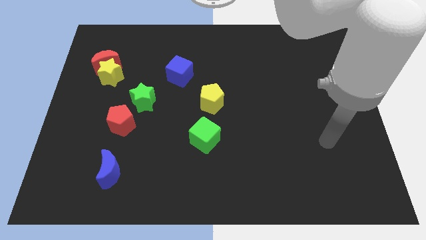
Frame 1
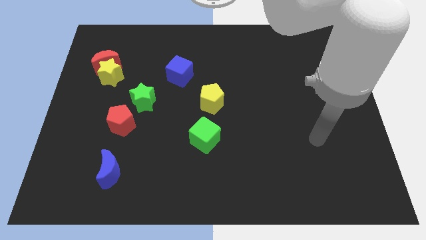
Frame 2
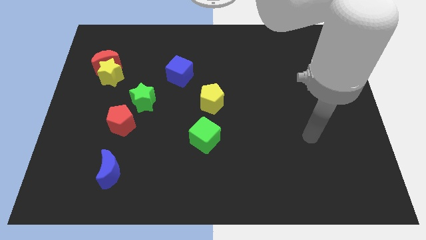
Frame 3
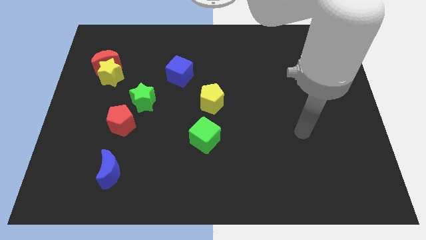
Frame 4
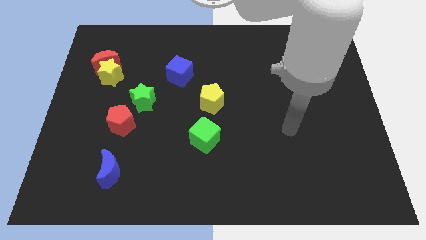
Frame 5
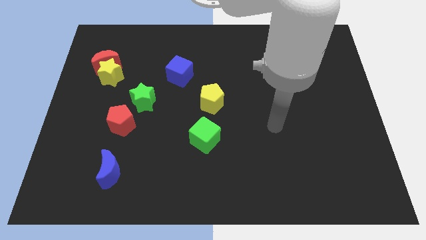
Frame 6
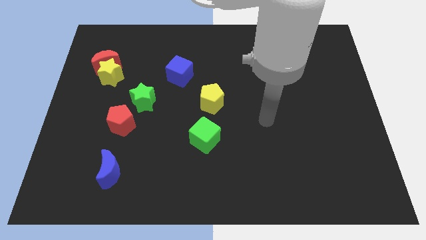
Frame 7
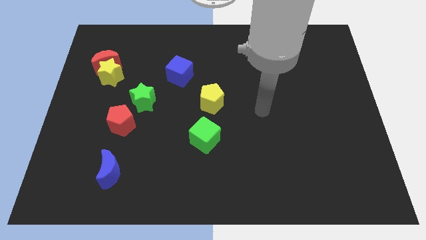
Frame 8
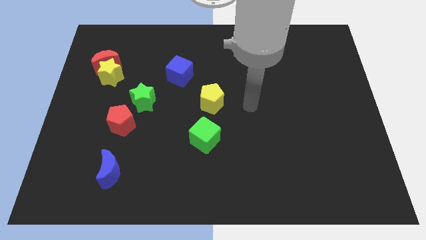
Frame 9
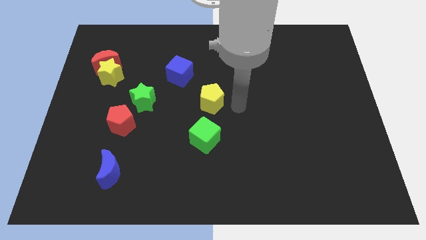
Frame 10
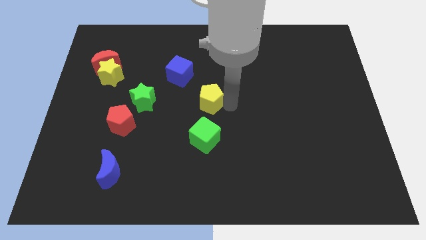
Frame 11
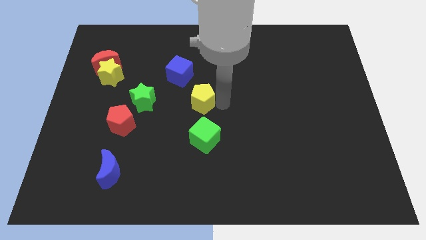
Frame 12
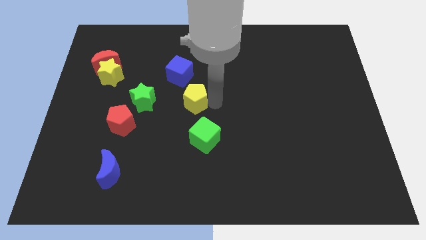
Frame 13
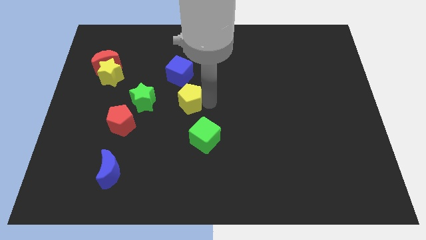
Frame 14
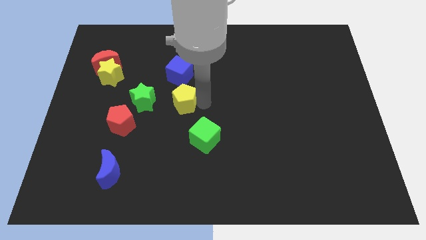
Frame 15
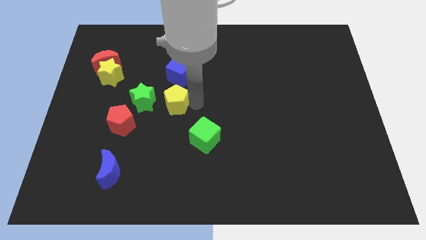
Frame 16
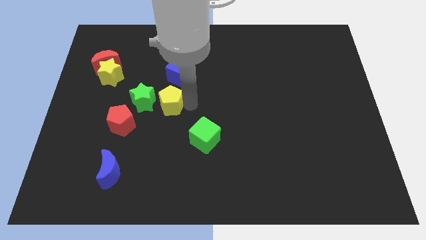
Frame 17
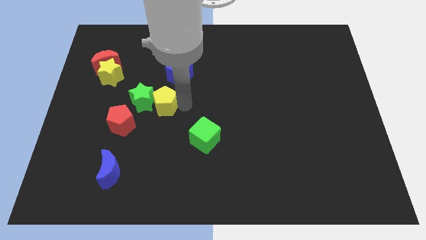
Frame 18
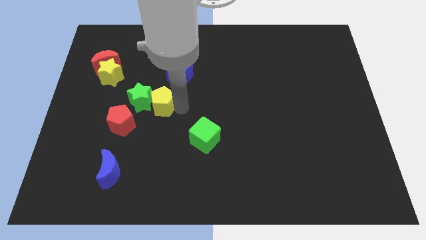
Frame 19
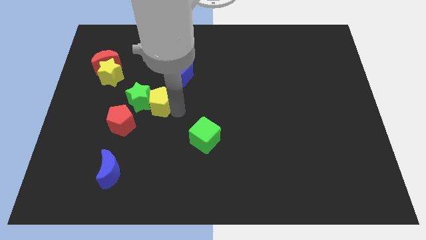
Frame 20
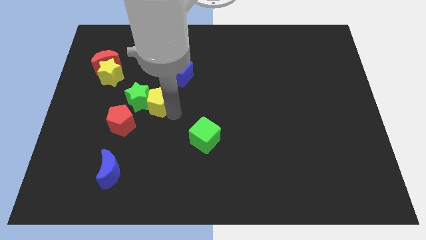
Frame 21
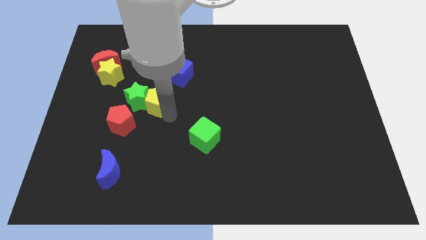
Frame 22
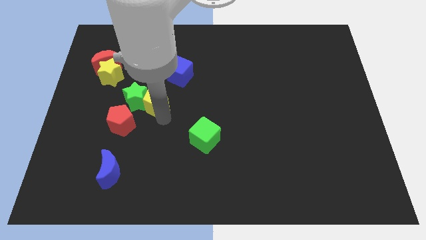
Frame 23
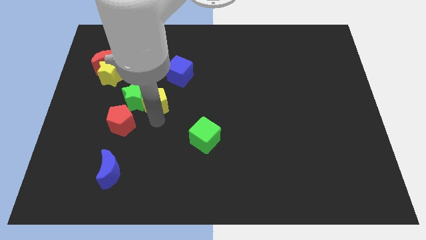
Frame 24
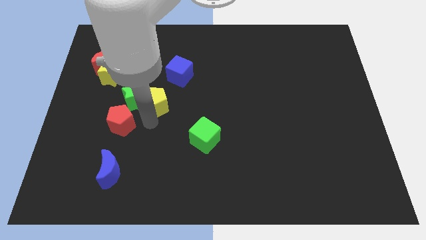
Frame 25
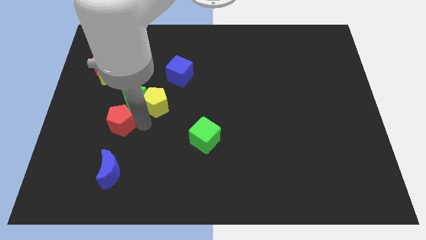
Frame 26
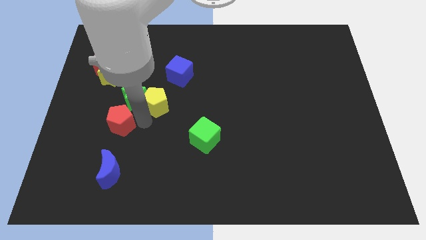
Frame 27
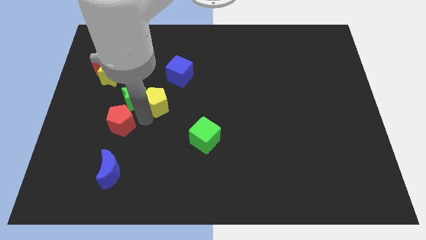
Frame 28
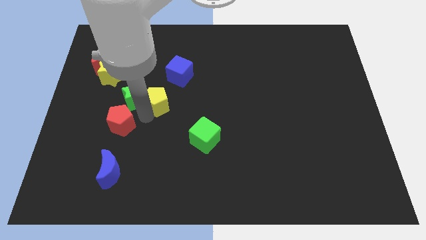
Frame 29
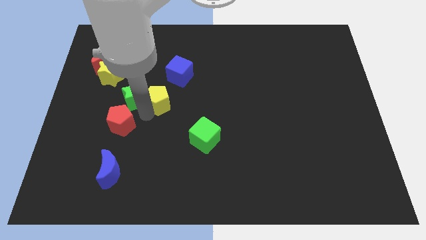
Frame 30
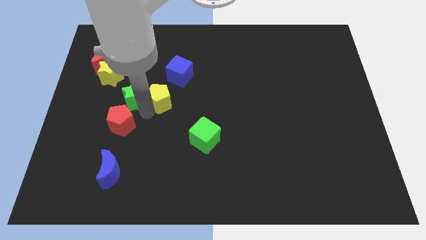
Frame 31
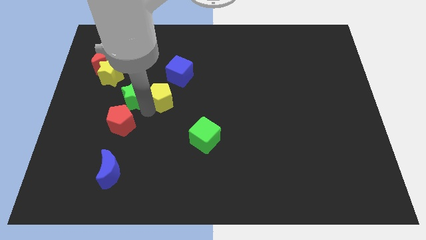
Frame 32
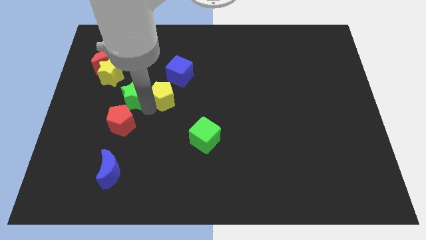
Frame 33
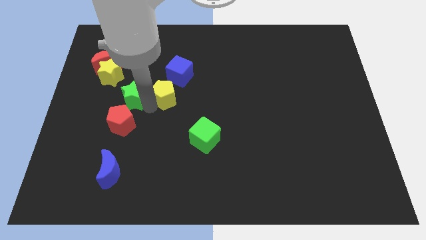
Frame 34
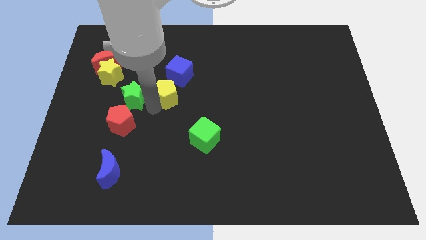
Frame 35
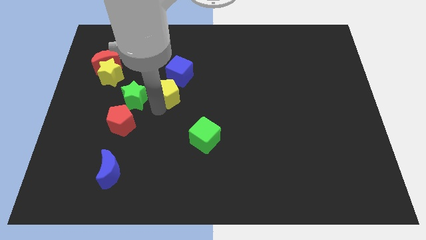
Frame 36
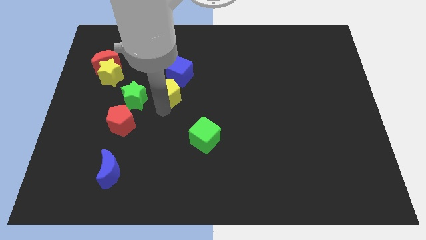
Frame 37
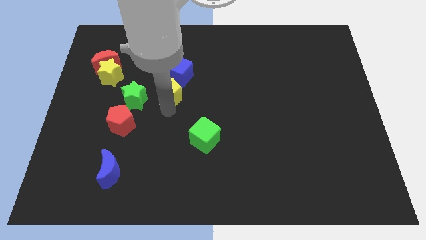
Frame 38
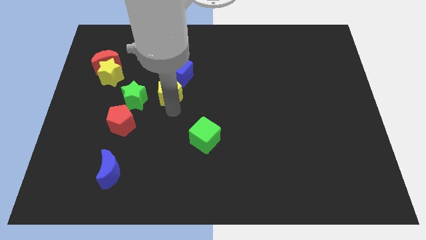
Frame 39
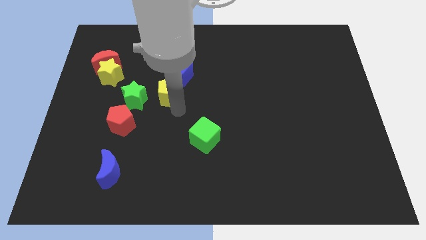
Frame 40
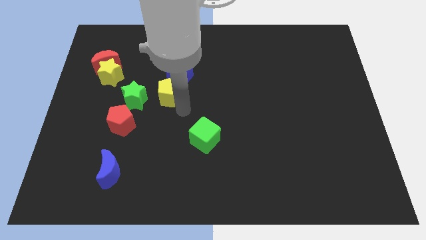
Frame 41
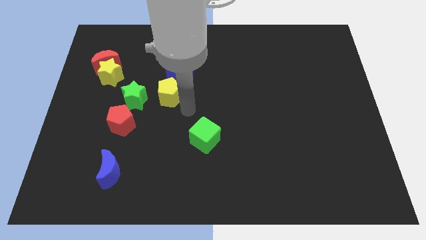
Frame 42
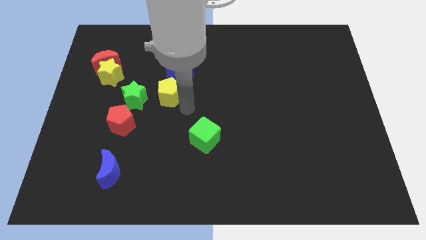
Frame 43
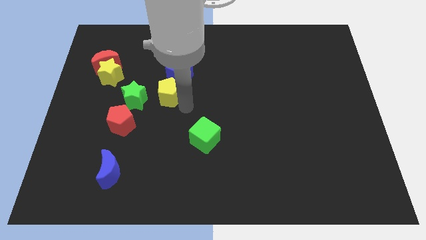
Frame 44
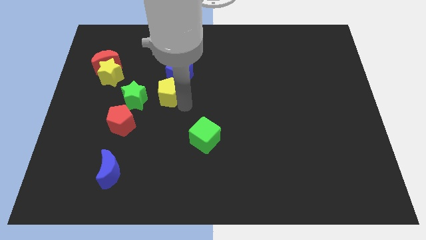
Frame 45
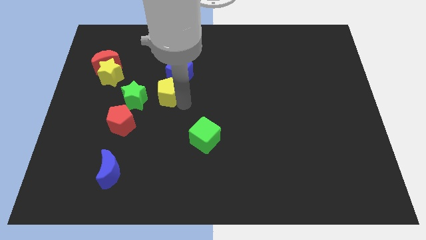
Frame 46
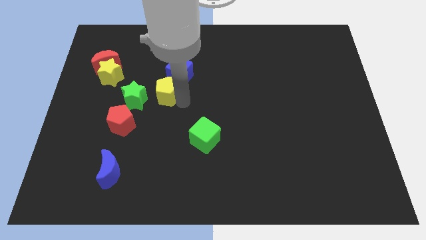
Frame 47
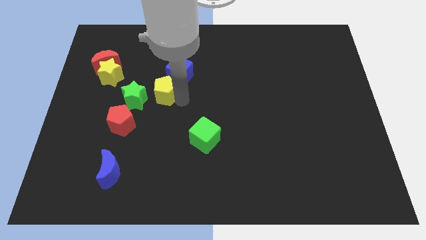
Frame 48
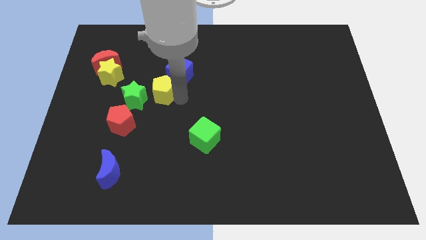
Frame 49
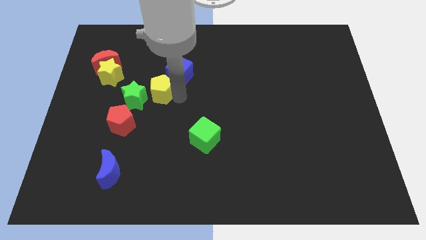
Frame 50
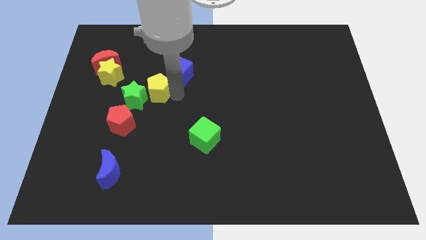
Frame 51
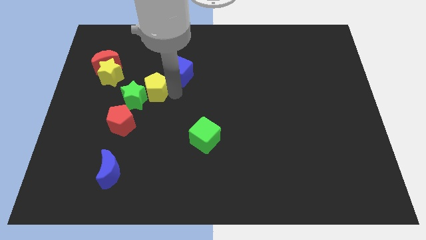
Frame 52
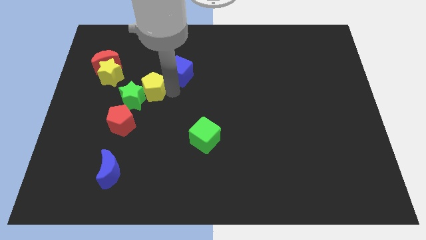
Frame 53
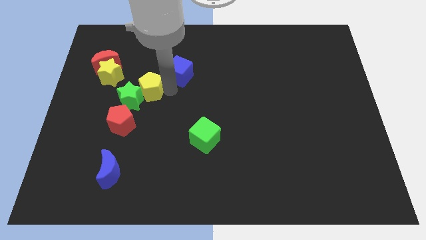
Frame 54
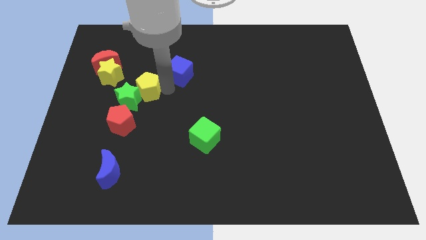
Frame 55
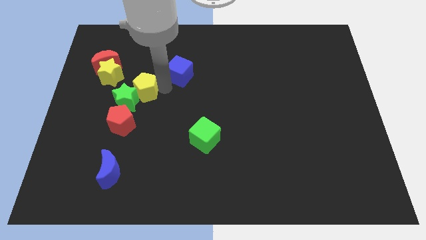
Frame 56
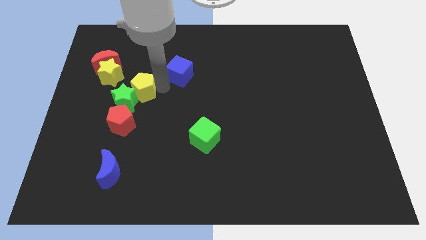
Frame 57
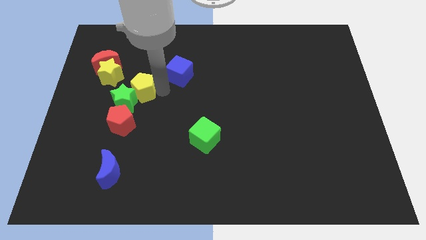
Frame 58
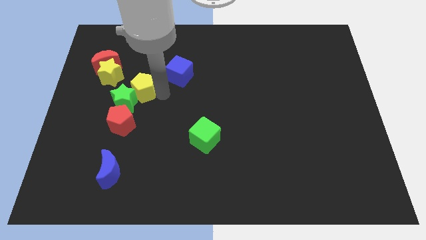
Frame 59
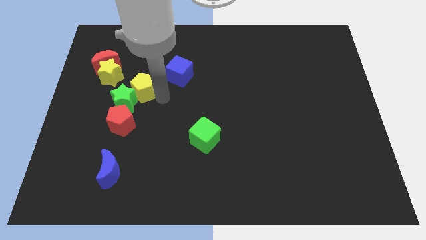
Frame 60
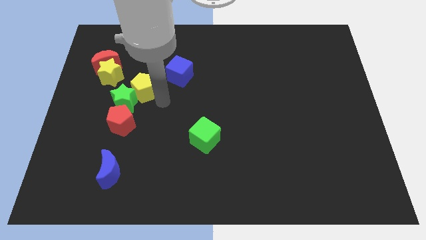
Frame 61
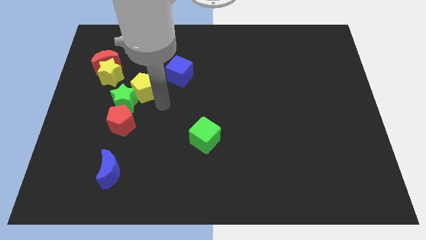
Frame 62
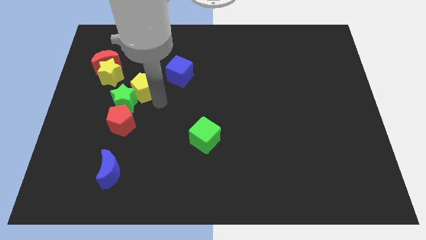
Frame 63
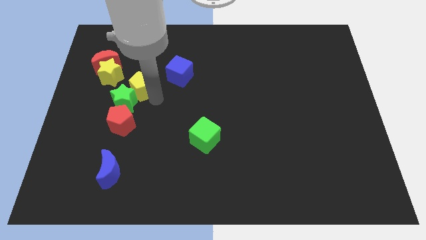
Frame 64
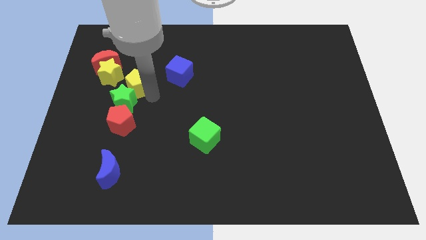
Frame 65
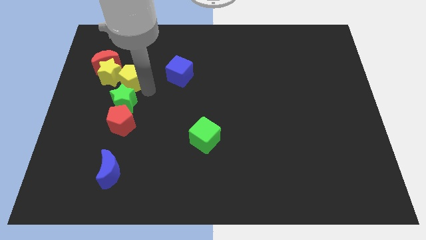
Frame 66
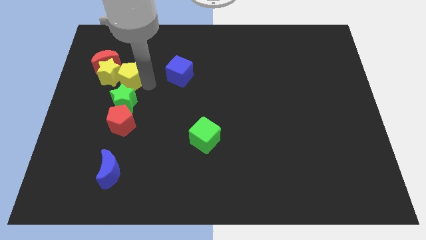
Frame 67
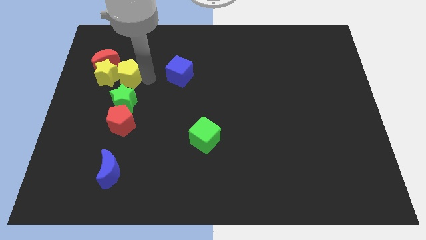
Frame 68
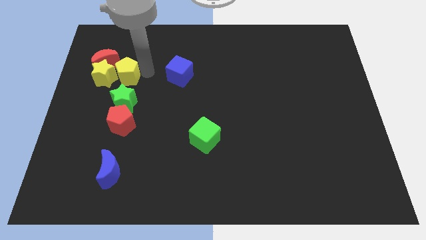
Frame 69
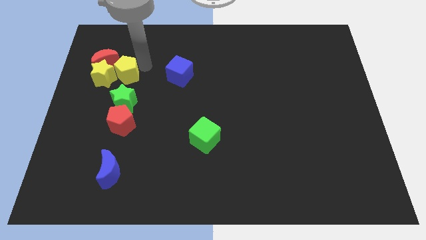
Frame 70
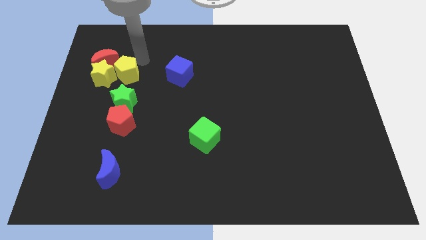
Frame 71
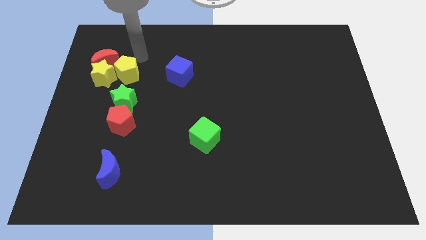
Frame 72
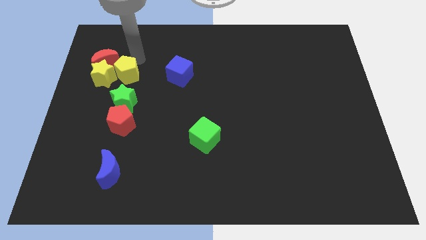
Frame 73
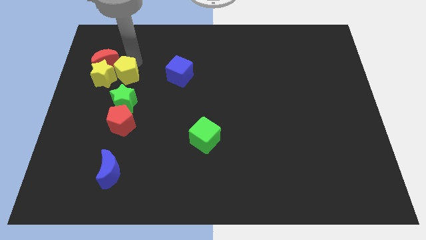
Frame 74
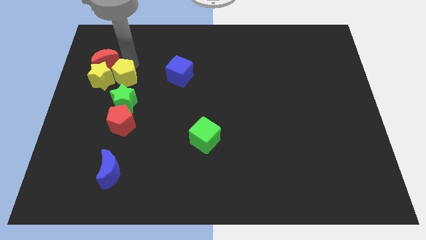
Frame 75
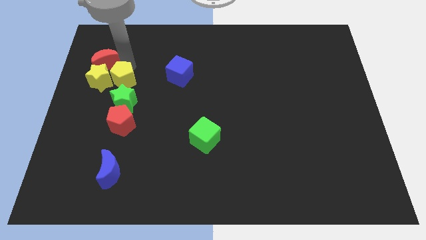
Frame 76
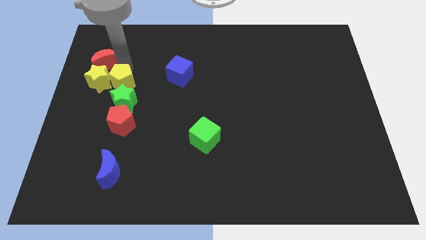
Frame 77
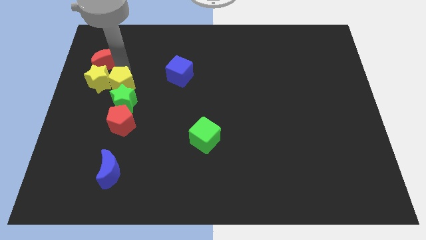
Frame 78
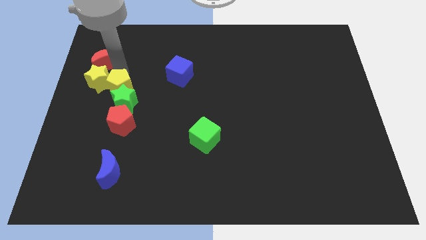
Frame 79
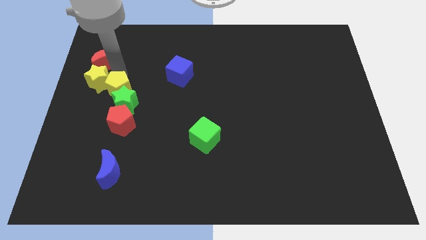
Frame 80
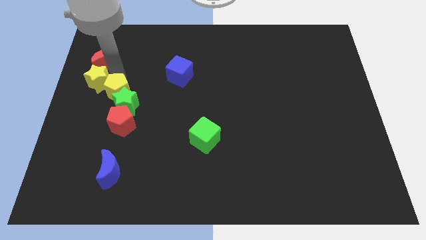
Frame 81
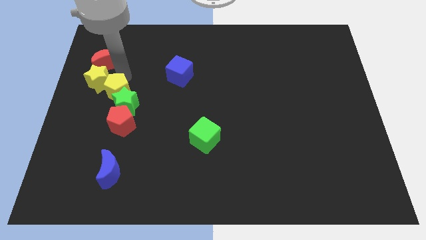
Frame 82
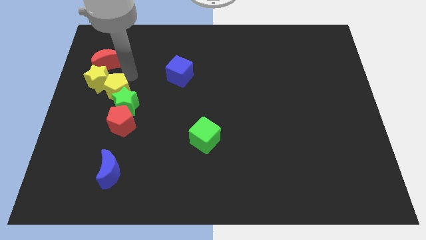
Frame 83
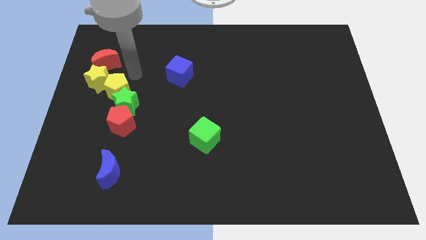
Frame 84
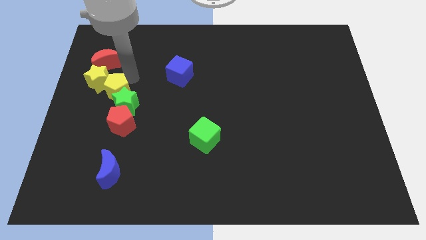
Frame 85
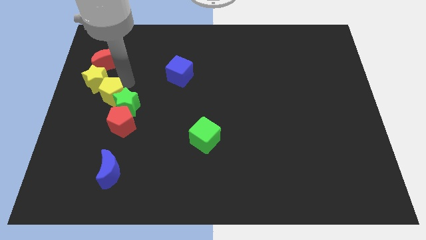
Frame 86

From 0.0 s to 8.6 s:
slide the yellow pentagon diagonally up and to the left of the red pentagon

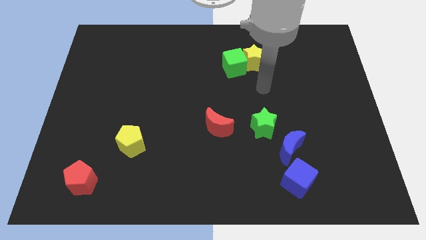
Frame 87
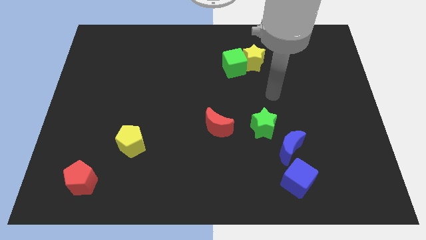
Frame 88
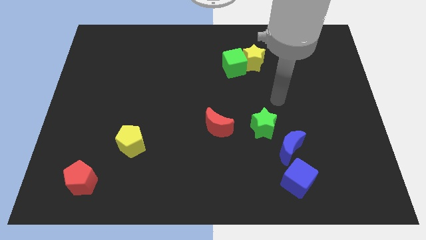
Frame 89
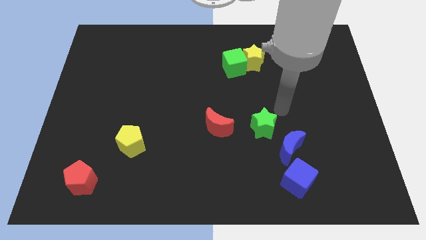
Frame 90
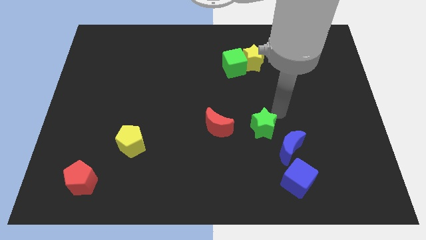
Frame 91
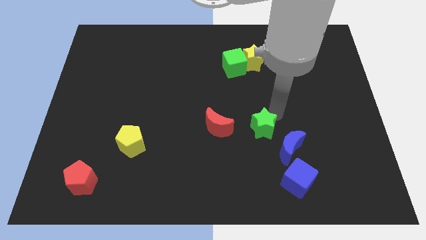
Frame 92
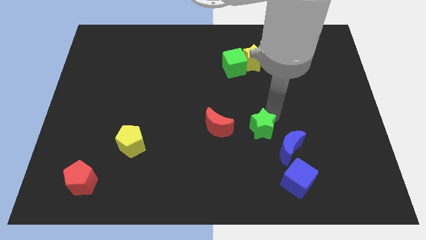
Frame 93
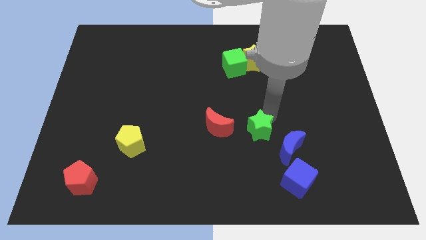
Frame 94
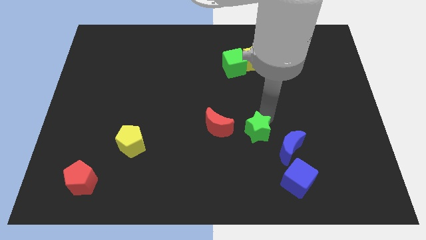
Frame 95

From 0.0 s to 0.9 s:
put the green star left of the blue moon
